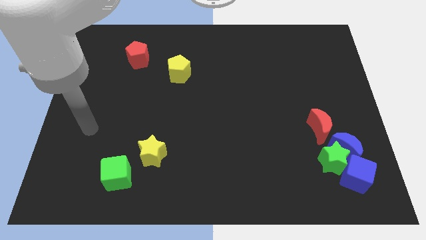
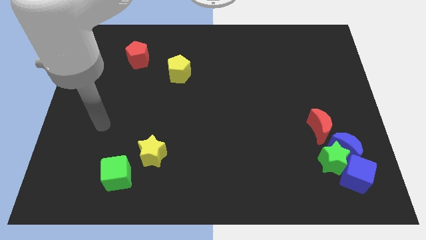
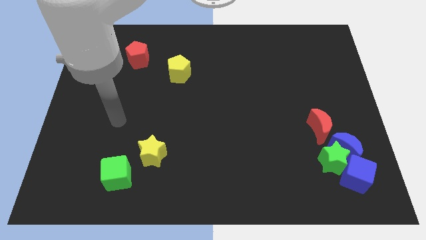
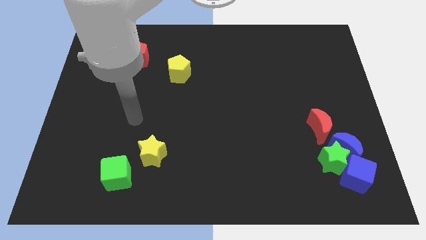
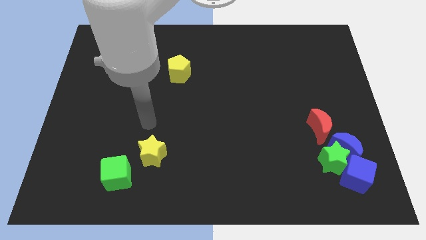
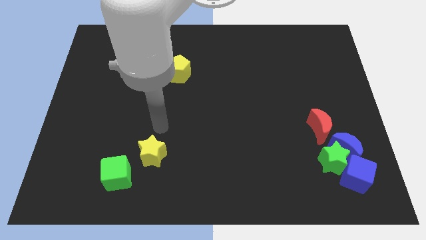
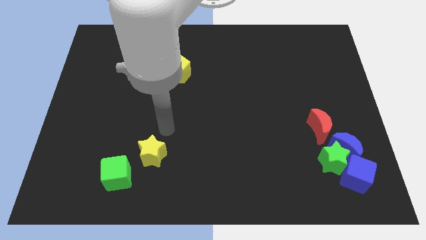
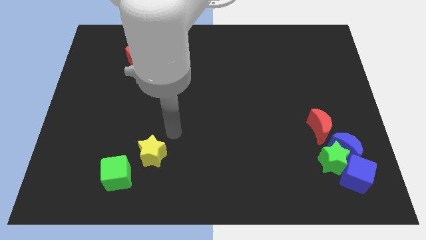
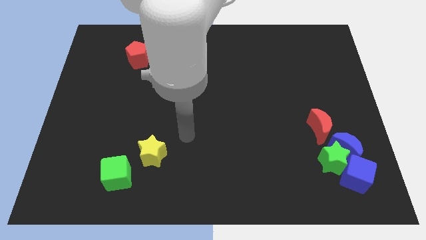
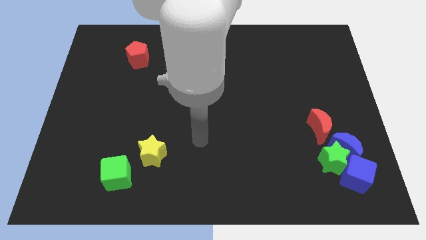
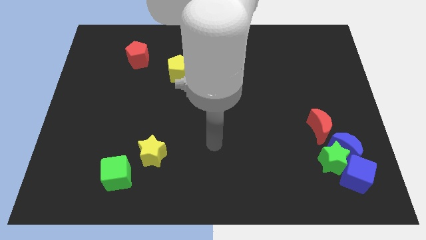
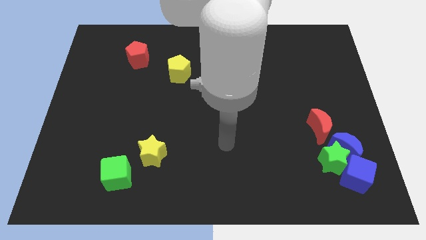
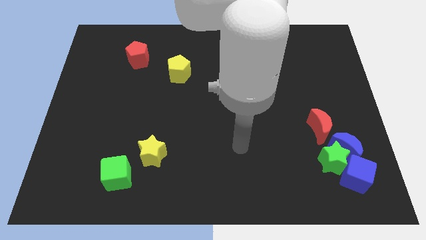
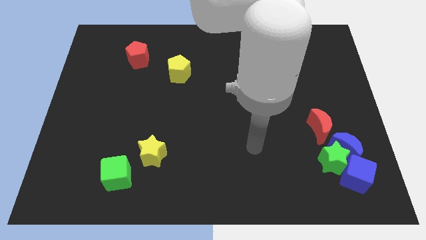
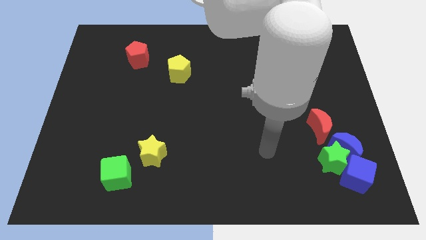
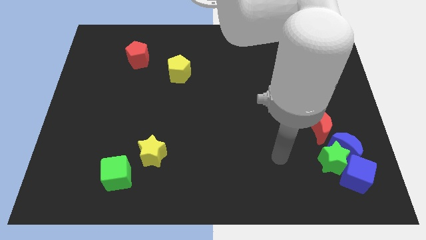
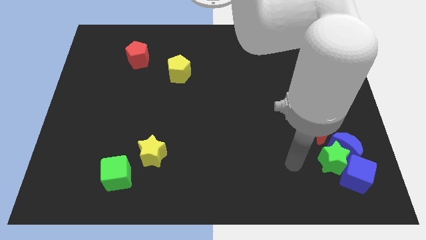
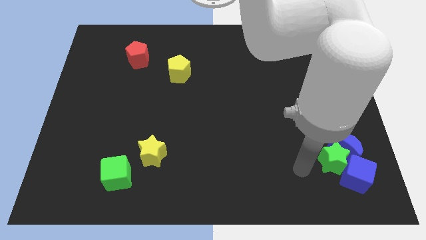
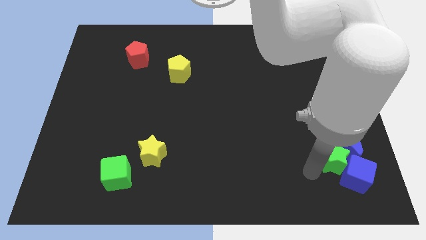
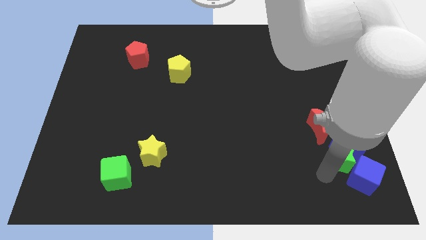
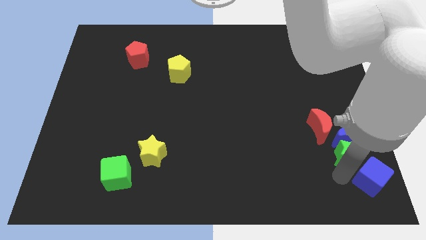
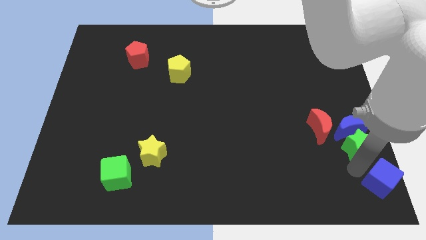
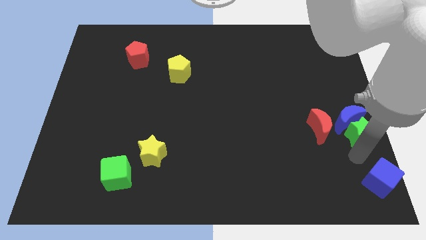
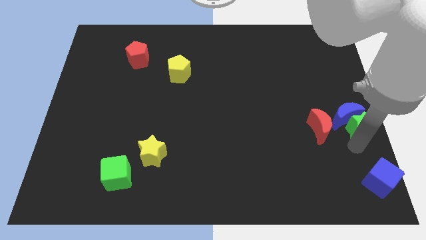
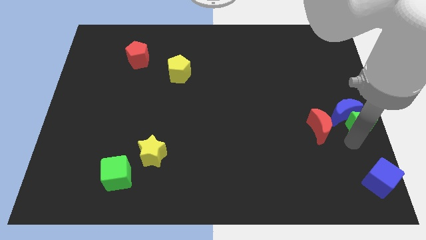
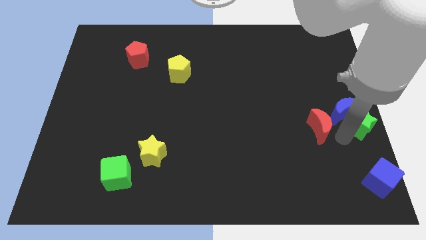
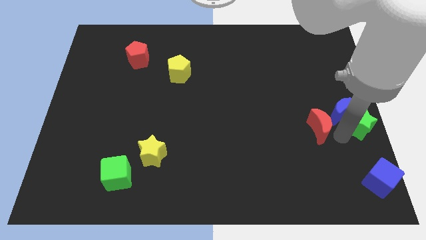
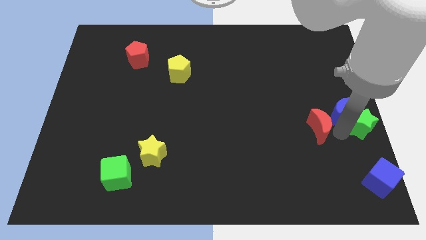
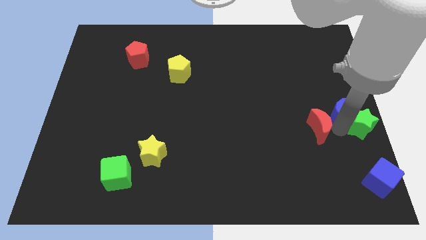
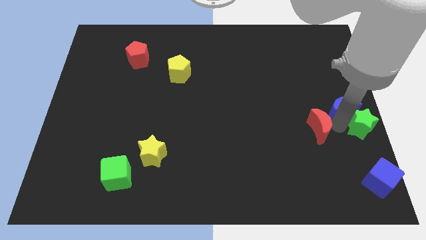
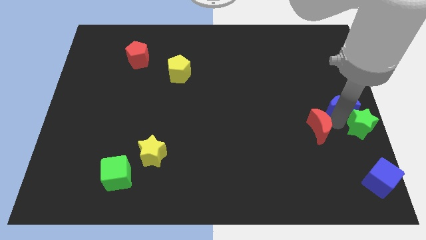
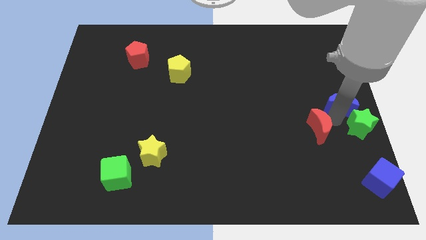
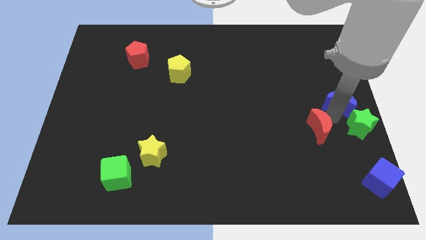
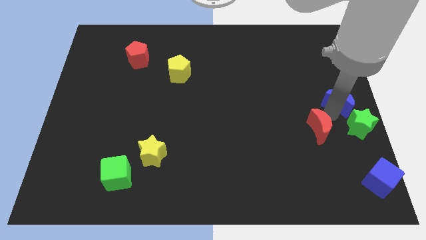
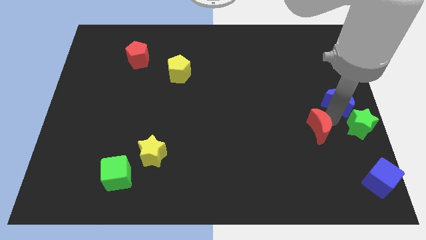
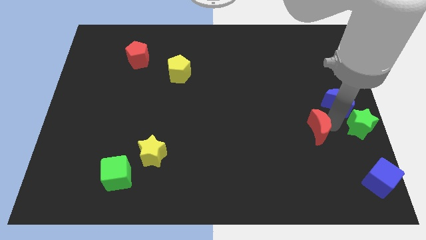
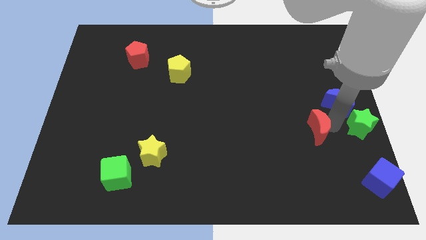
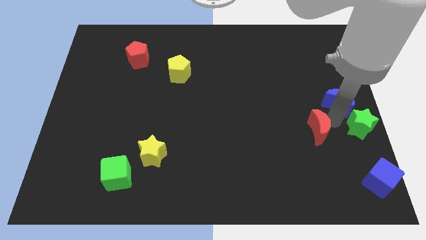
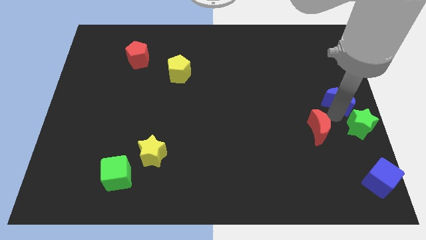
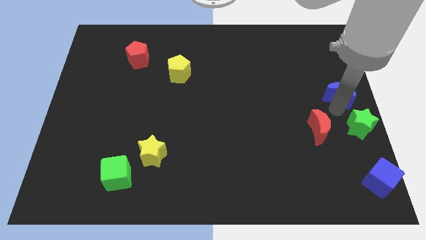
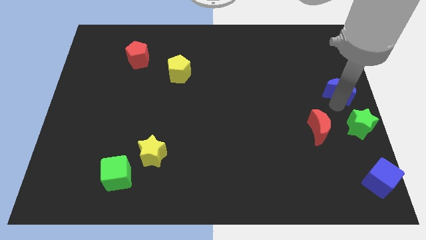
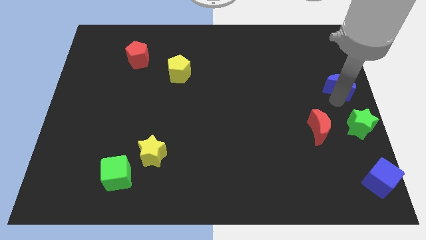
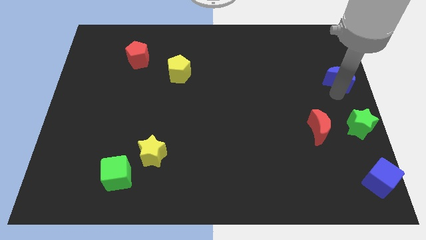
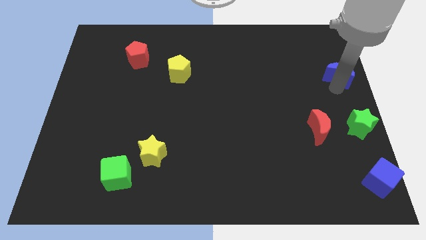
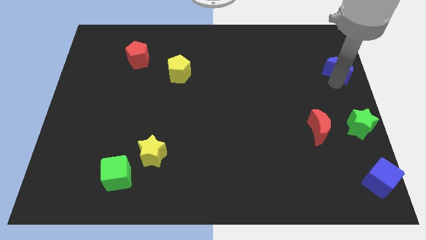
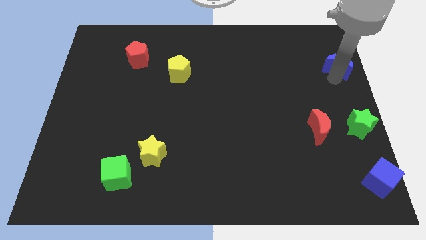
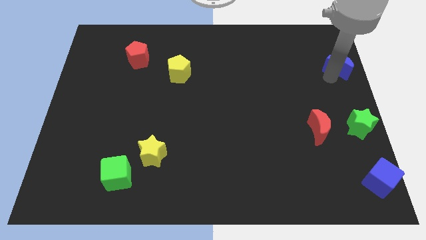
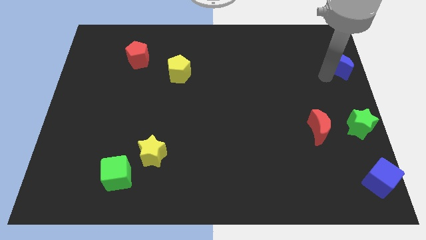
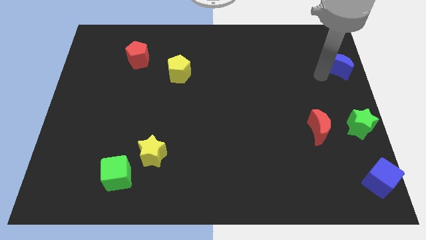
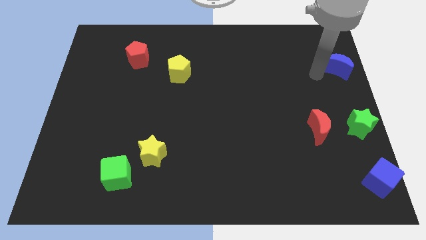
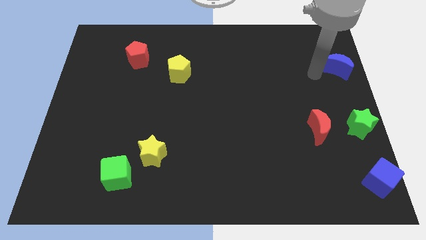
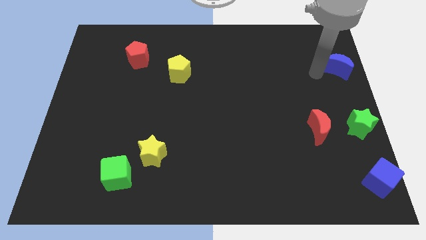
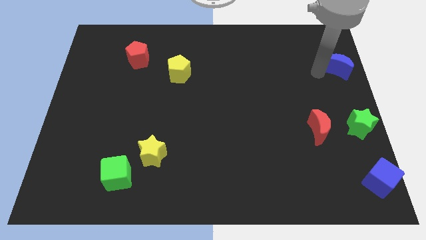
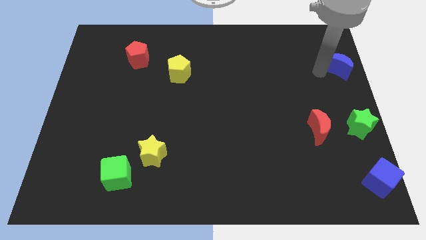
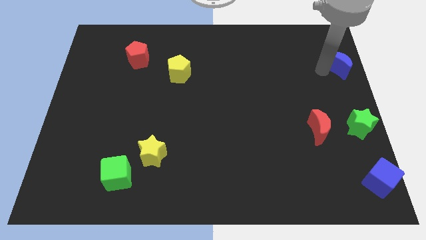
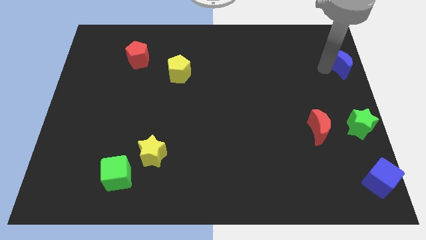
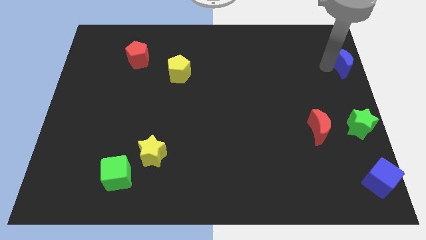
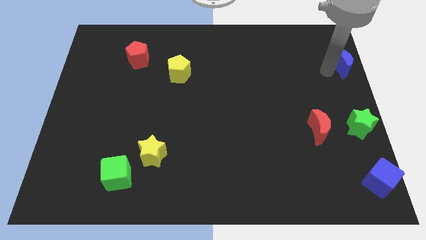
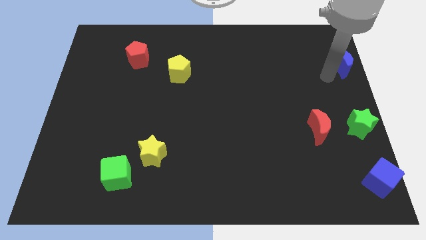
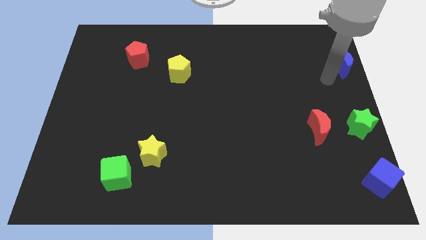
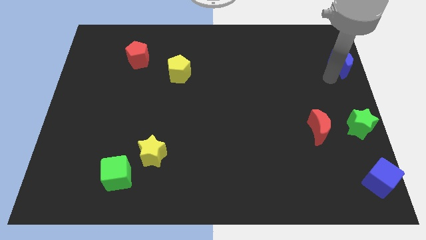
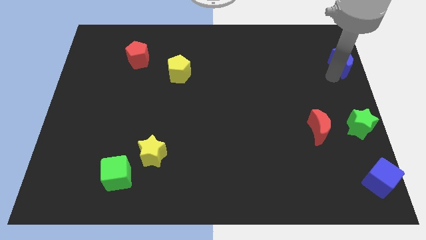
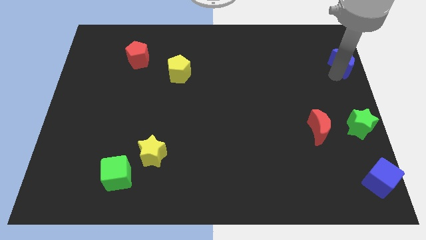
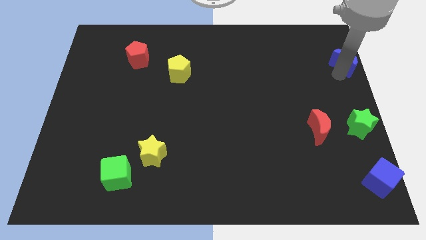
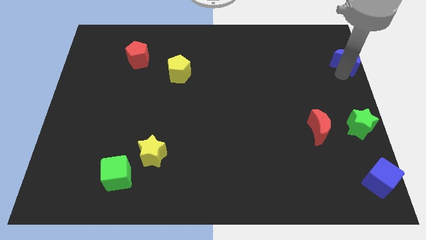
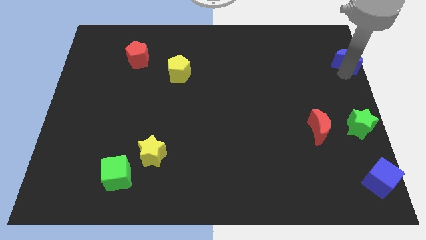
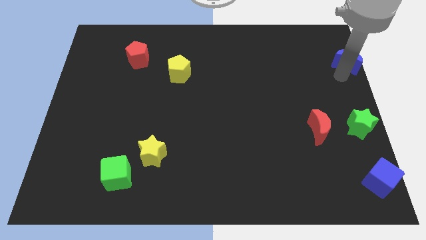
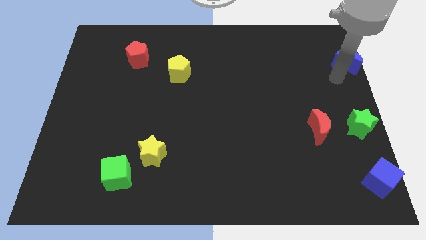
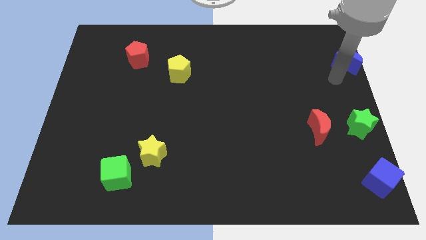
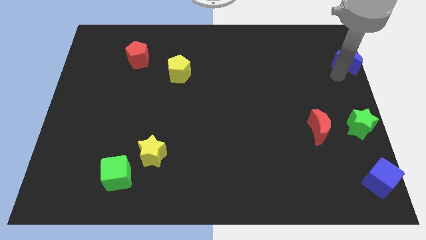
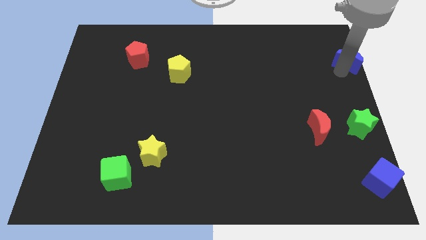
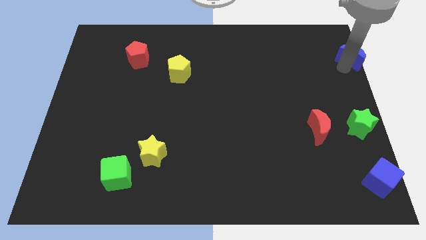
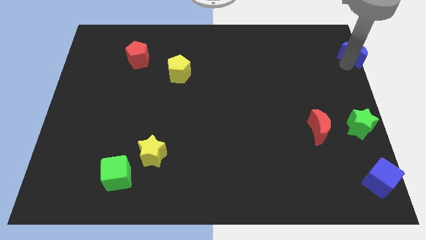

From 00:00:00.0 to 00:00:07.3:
slide the blue moon to the top right of the board
